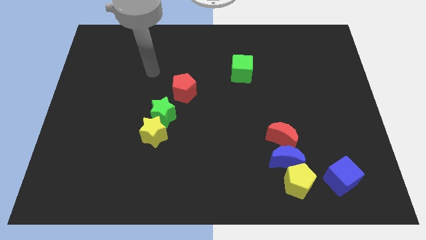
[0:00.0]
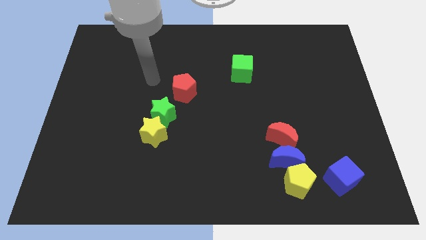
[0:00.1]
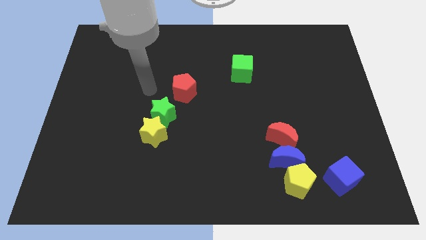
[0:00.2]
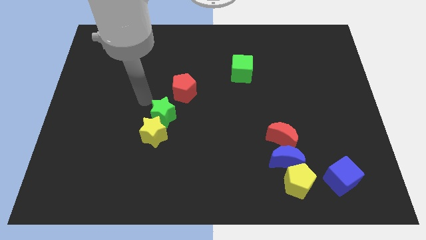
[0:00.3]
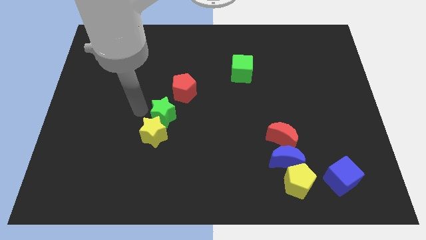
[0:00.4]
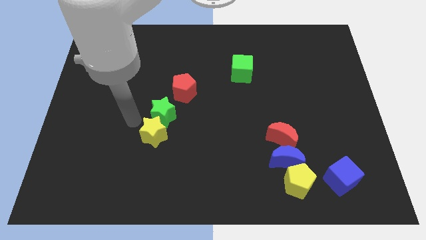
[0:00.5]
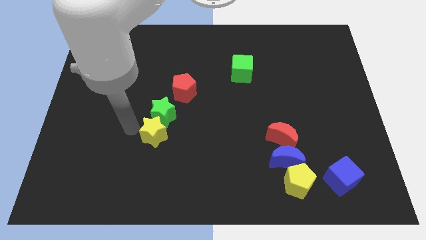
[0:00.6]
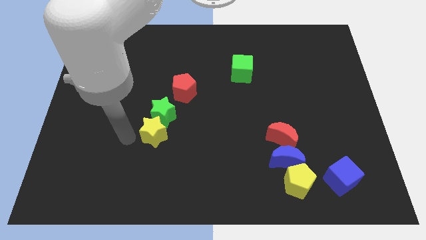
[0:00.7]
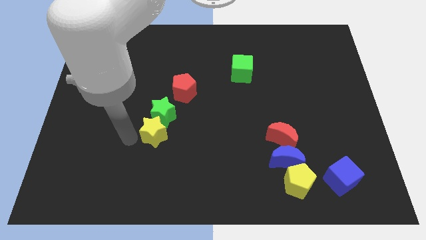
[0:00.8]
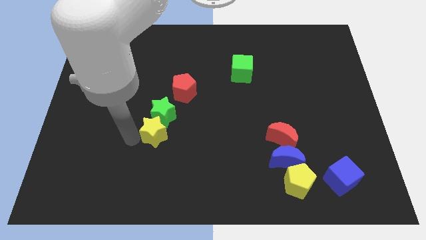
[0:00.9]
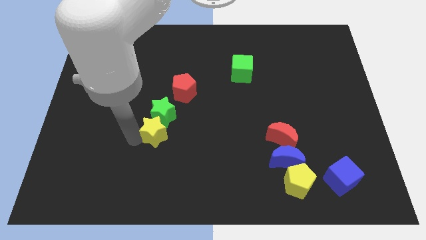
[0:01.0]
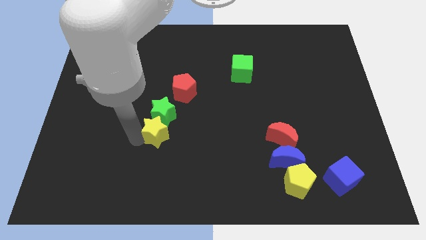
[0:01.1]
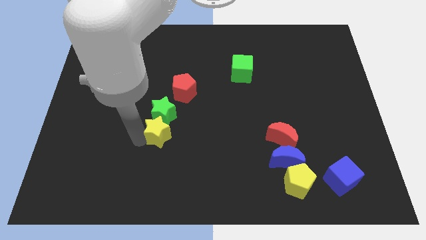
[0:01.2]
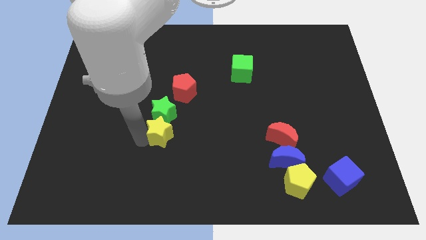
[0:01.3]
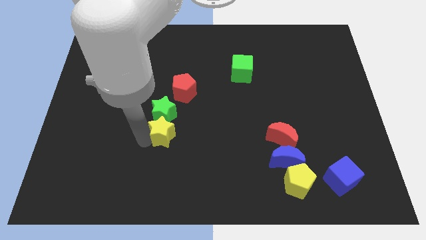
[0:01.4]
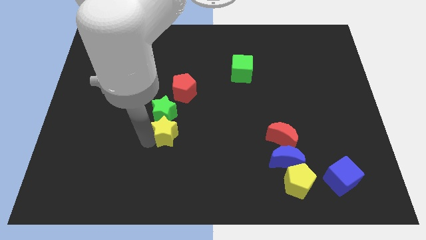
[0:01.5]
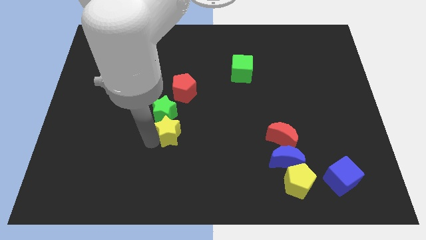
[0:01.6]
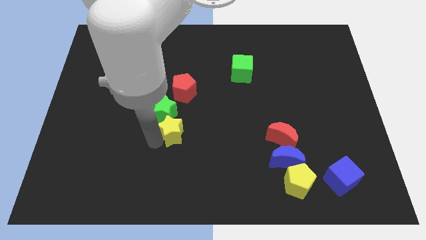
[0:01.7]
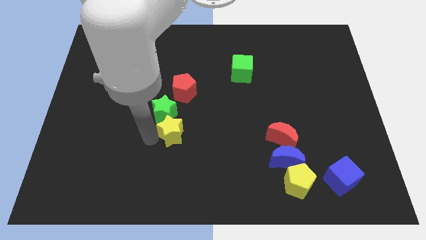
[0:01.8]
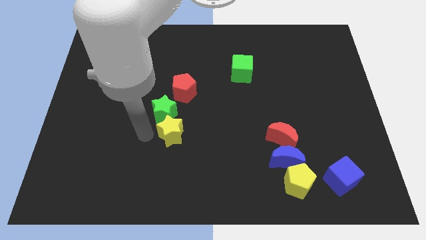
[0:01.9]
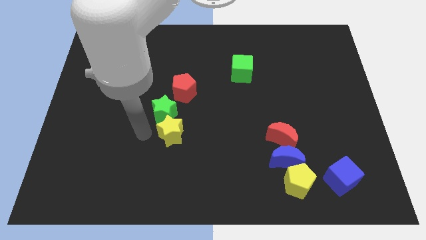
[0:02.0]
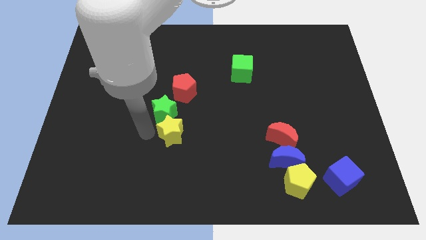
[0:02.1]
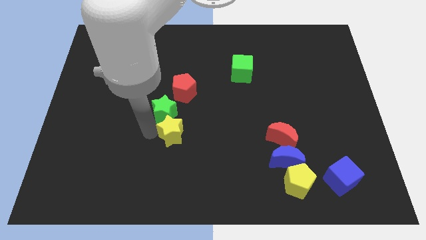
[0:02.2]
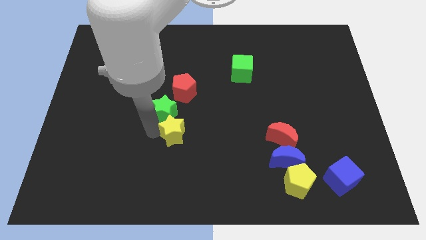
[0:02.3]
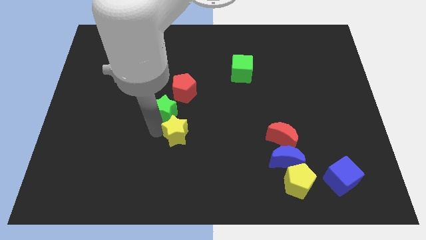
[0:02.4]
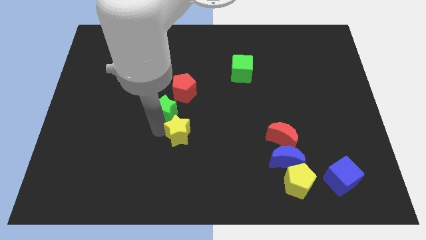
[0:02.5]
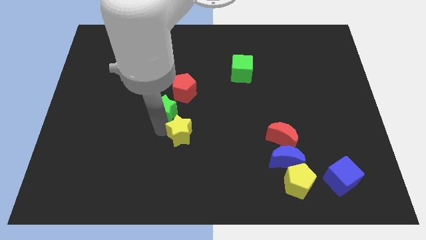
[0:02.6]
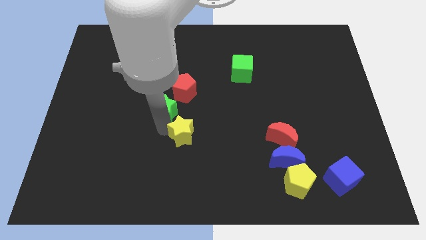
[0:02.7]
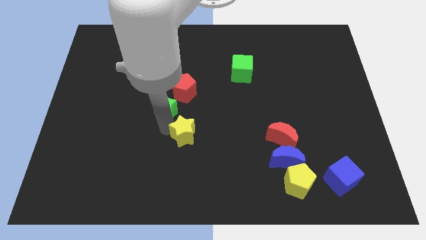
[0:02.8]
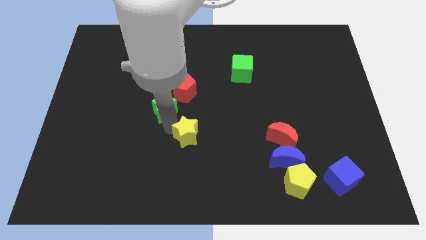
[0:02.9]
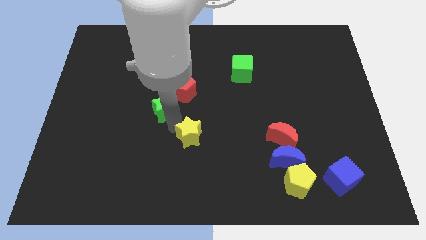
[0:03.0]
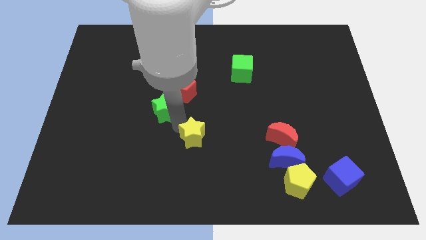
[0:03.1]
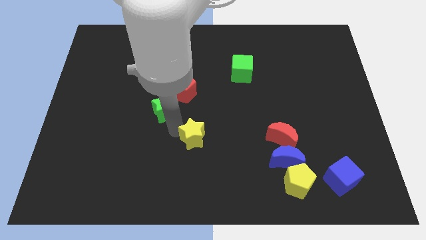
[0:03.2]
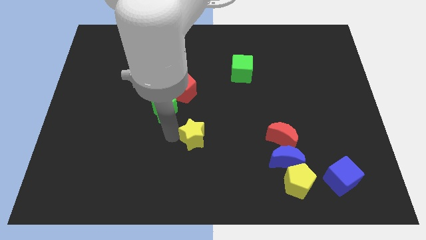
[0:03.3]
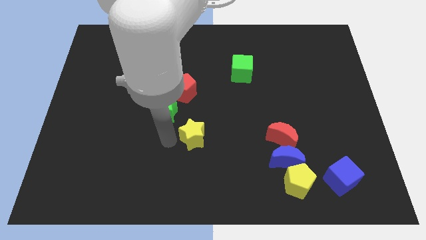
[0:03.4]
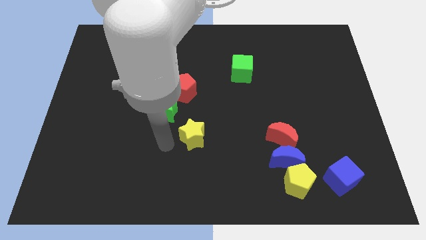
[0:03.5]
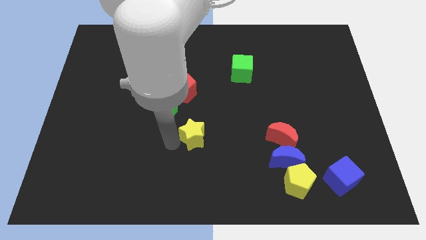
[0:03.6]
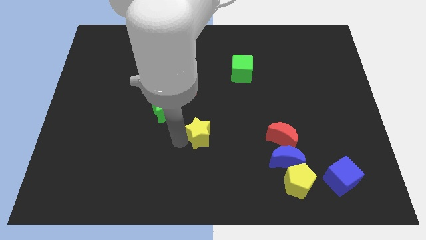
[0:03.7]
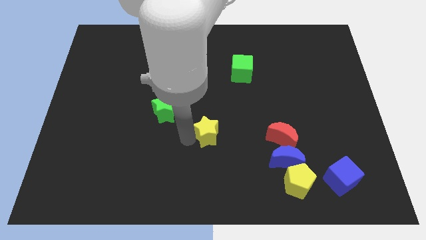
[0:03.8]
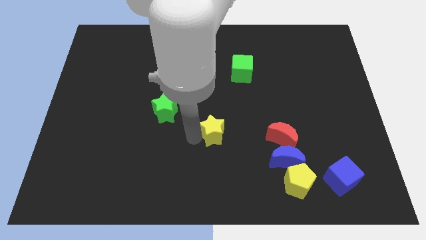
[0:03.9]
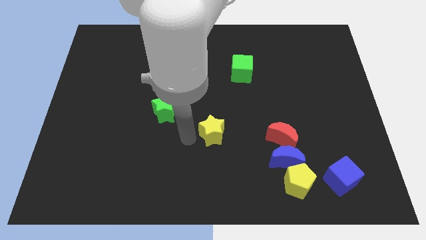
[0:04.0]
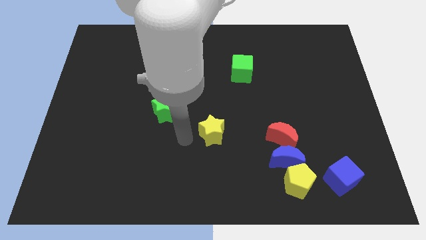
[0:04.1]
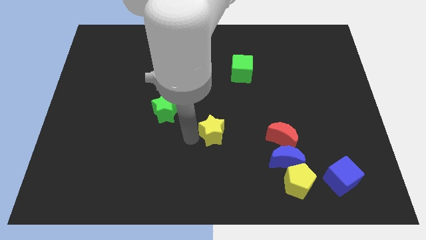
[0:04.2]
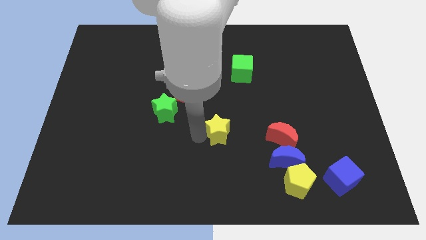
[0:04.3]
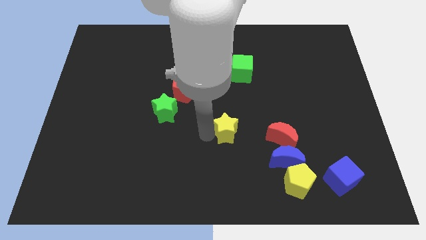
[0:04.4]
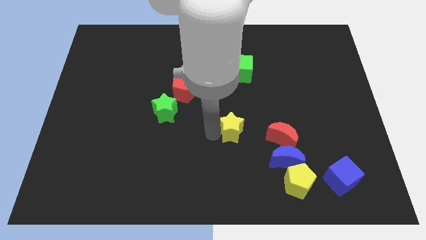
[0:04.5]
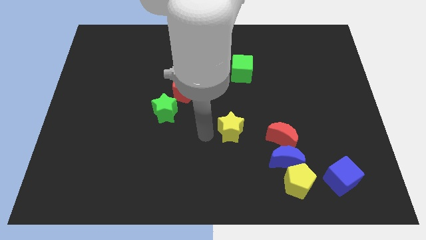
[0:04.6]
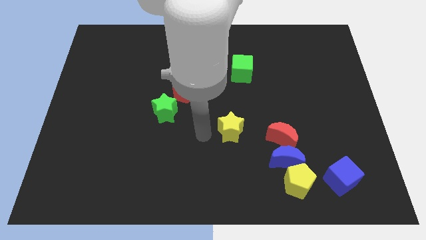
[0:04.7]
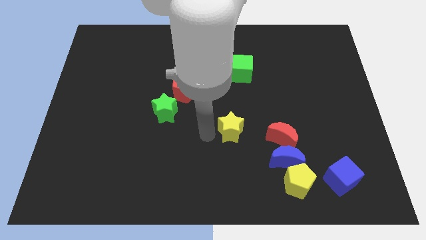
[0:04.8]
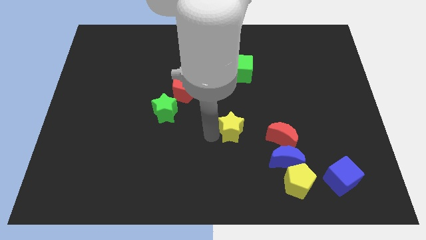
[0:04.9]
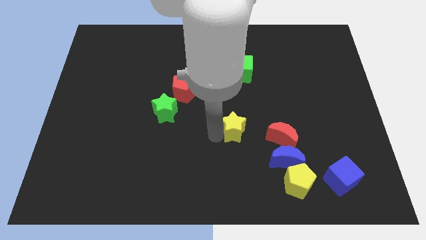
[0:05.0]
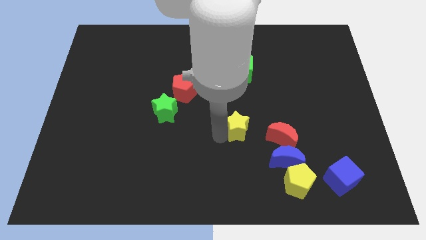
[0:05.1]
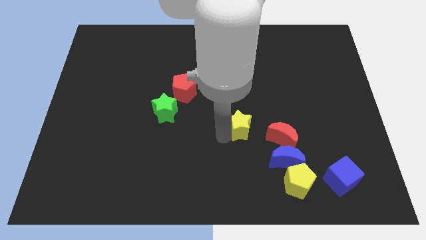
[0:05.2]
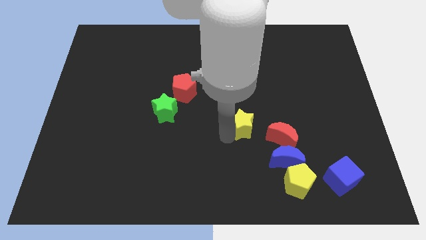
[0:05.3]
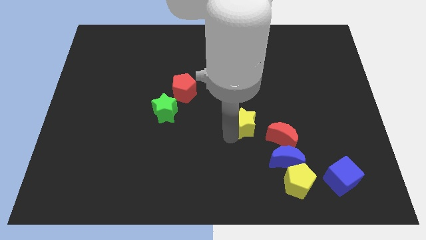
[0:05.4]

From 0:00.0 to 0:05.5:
move the yellow star to the right

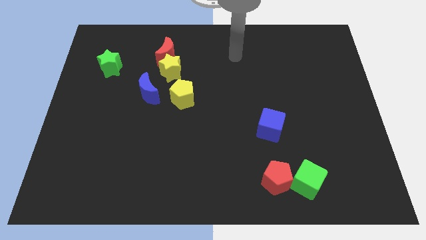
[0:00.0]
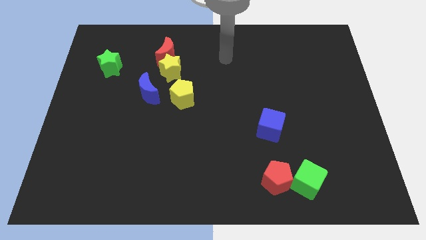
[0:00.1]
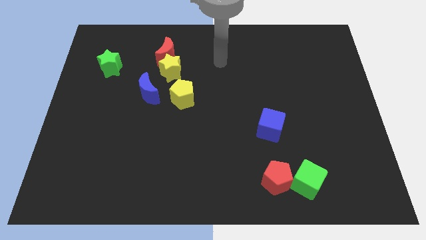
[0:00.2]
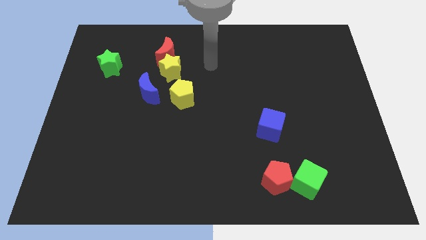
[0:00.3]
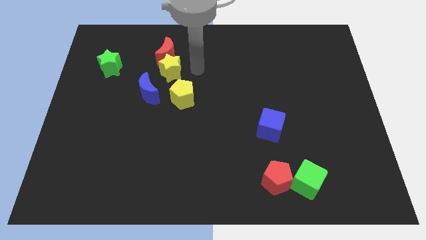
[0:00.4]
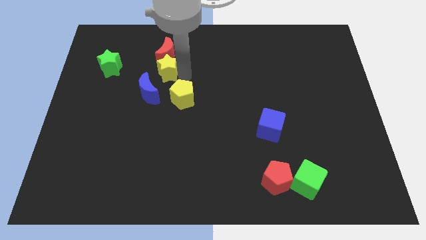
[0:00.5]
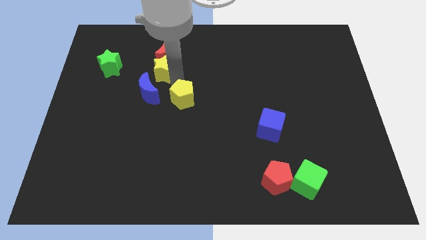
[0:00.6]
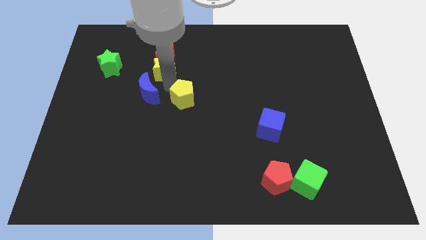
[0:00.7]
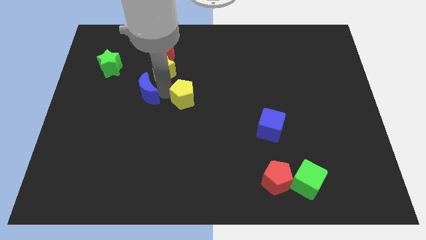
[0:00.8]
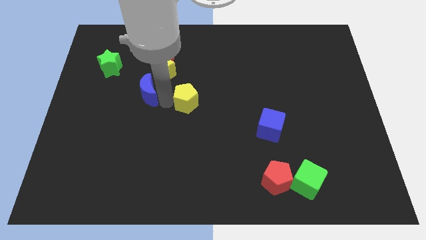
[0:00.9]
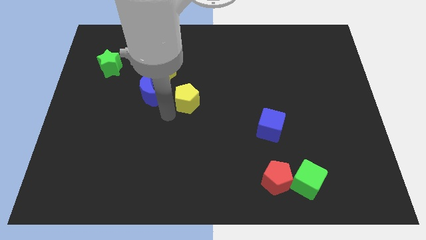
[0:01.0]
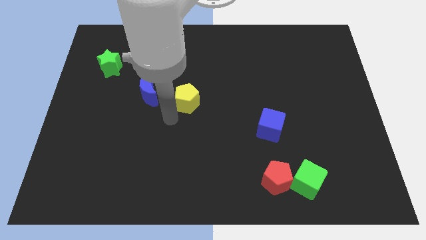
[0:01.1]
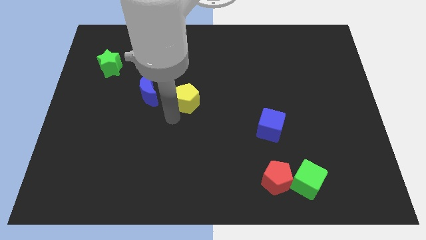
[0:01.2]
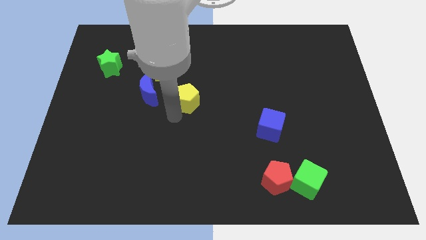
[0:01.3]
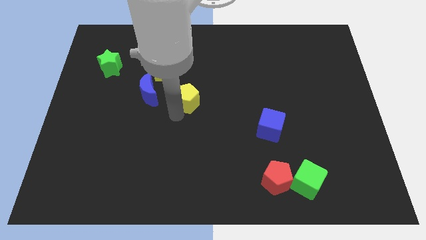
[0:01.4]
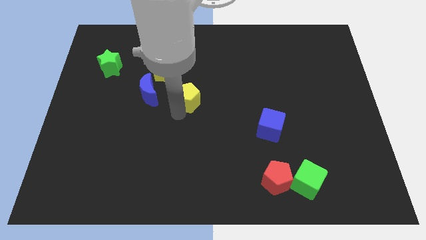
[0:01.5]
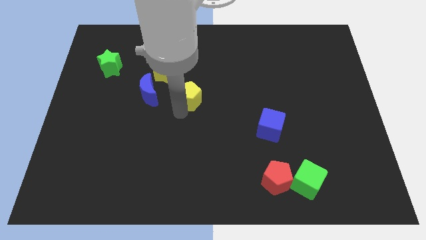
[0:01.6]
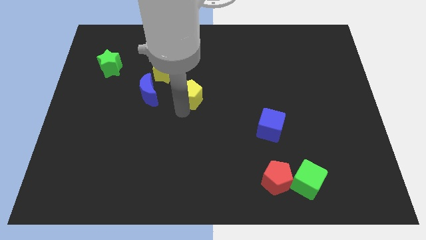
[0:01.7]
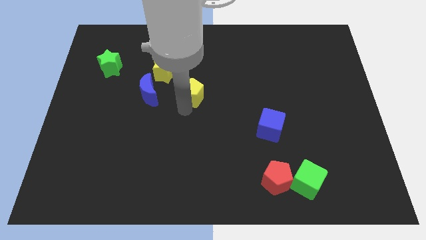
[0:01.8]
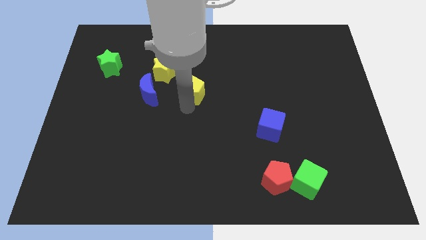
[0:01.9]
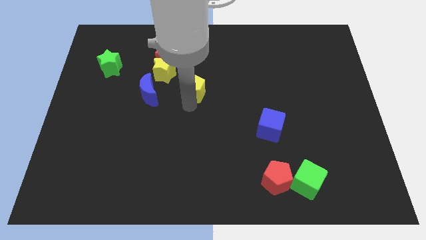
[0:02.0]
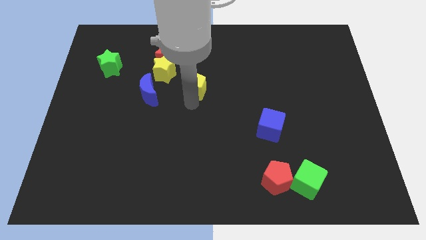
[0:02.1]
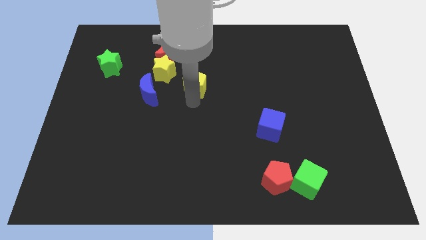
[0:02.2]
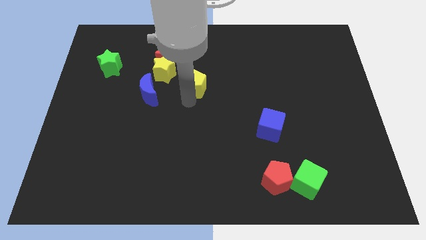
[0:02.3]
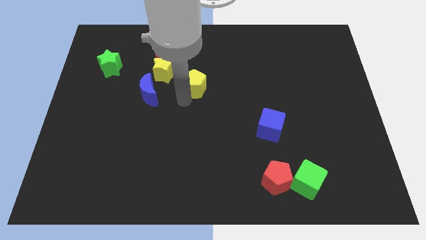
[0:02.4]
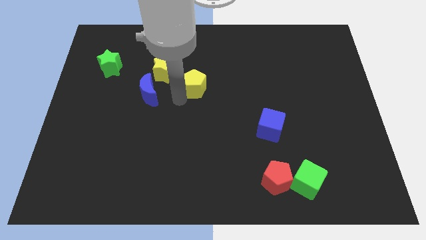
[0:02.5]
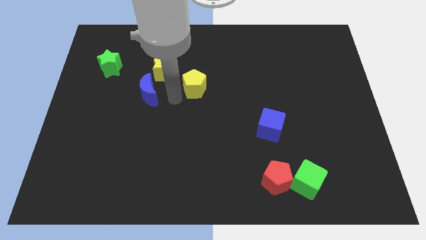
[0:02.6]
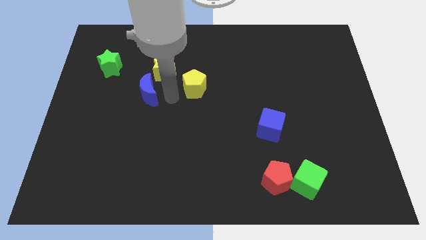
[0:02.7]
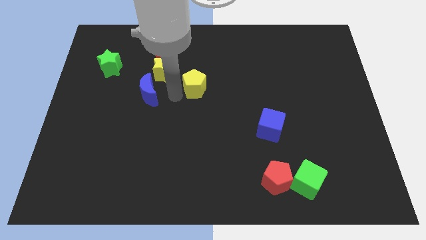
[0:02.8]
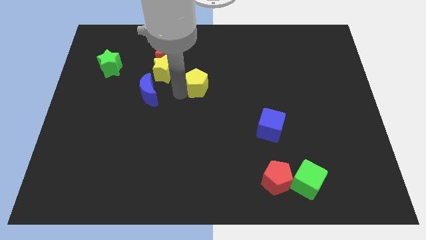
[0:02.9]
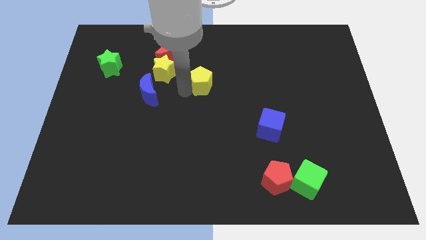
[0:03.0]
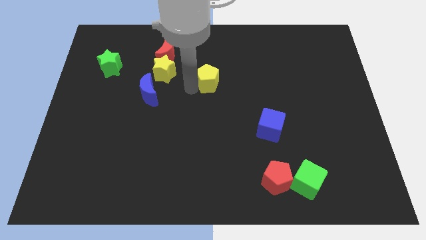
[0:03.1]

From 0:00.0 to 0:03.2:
slide the yellow pentagon upwards and to the right diagonally a bit
